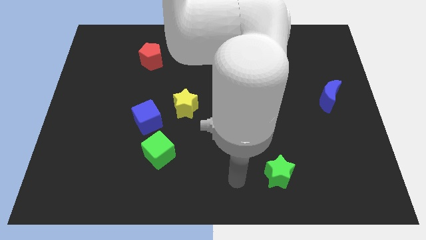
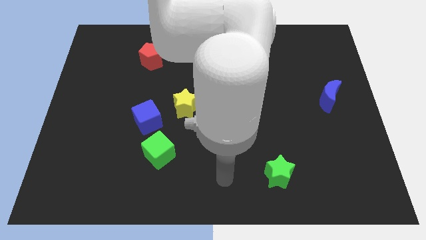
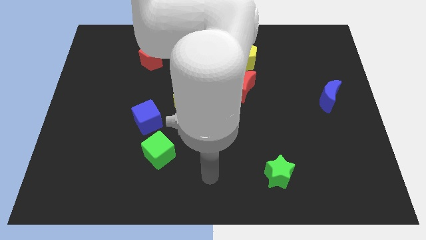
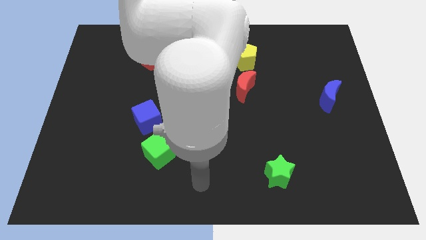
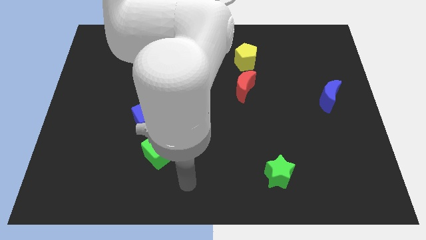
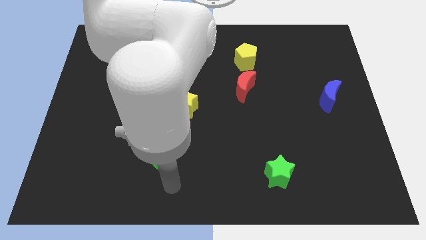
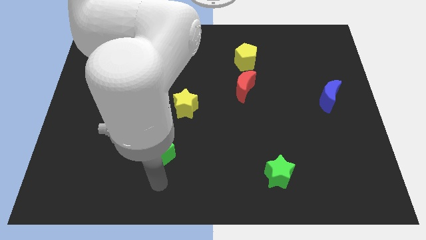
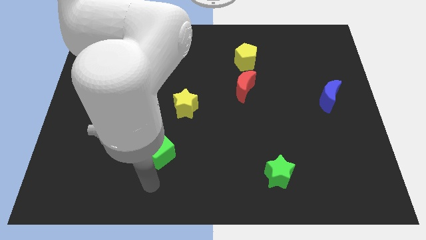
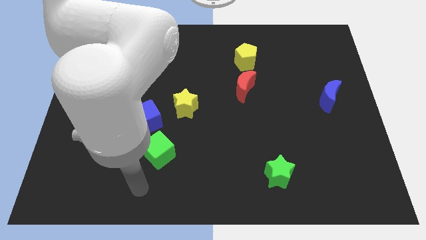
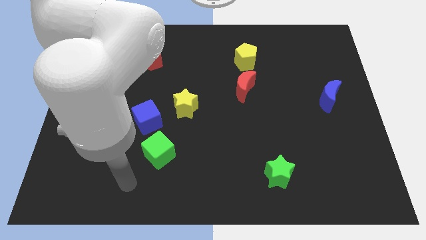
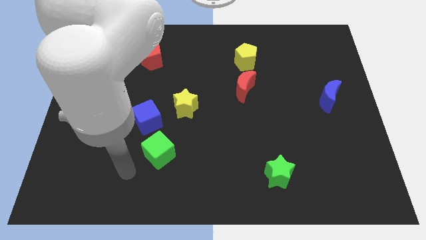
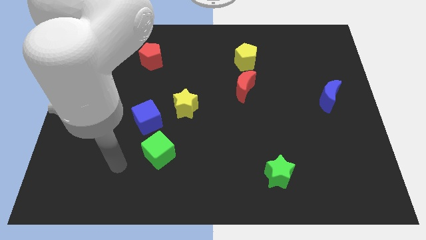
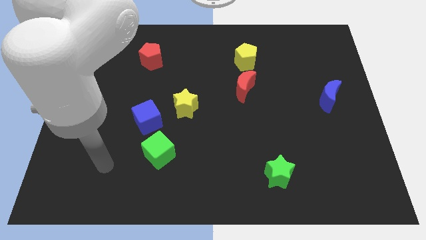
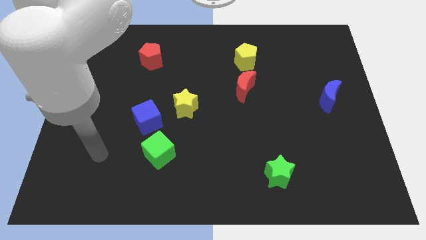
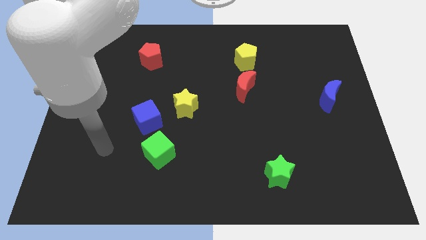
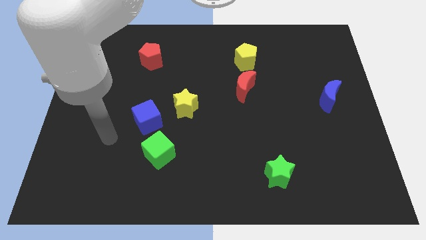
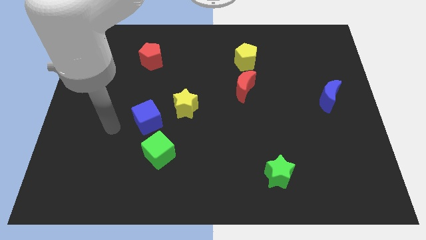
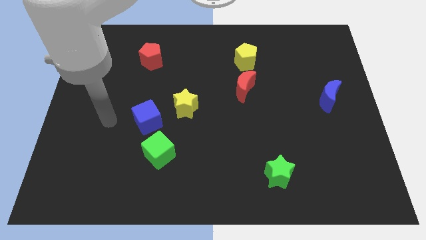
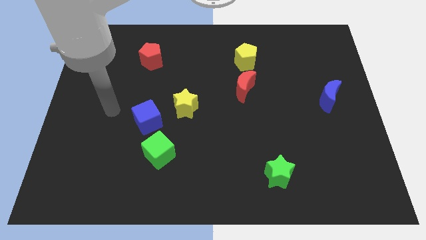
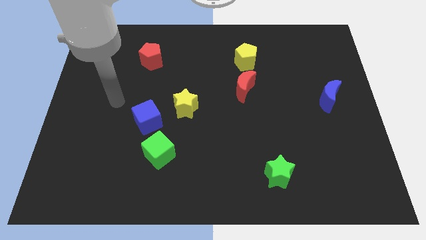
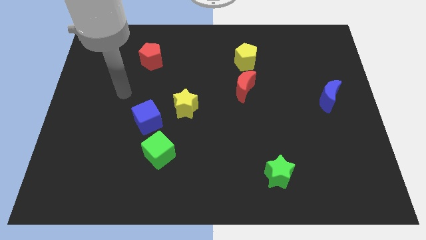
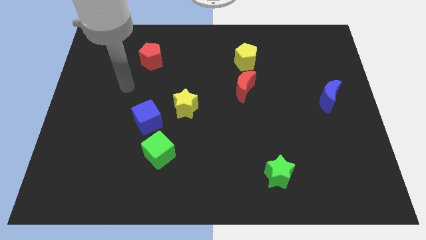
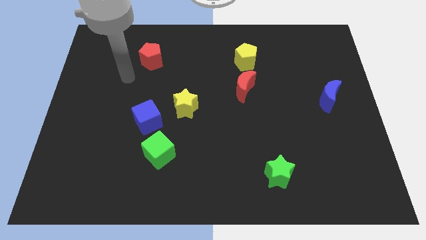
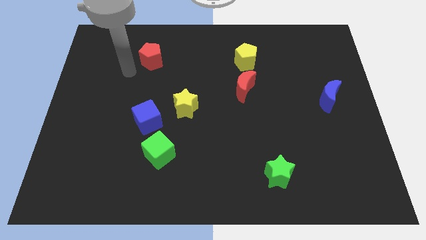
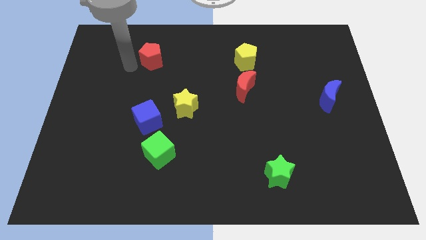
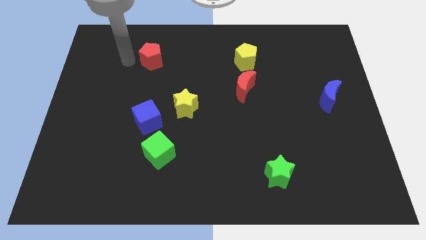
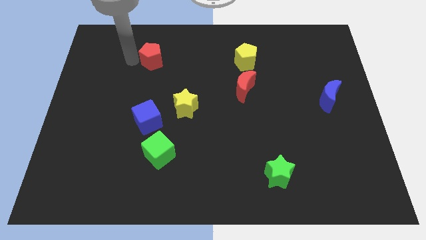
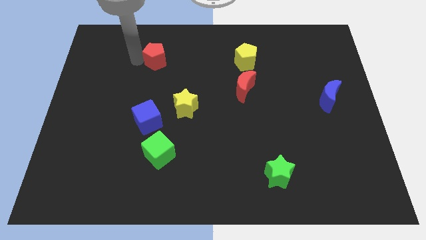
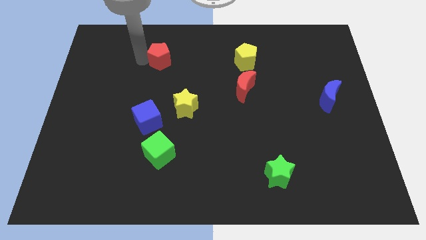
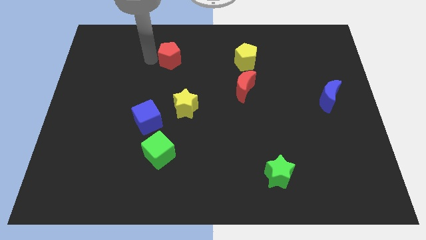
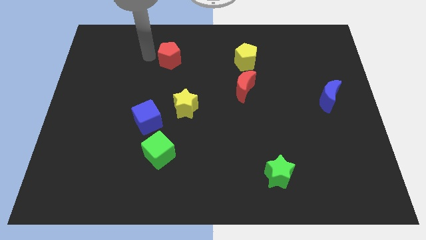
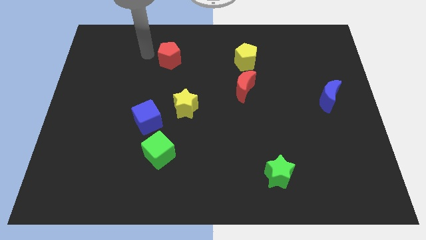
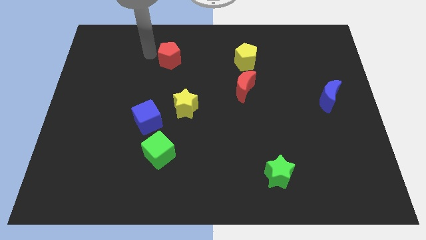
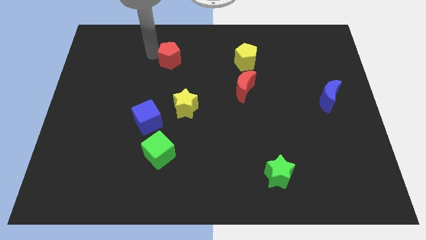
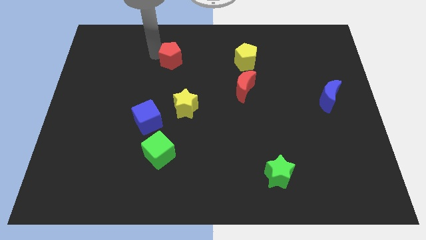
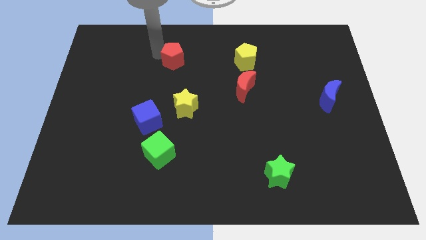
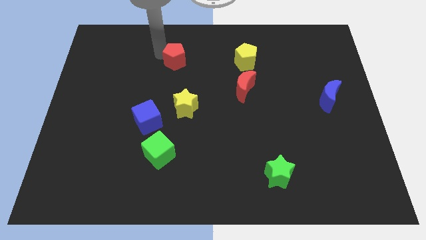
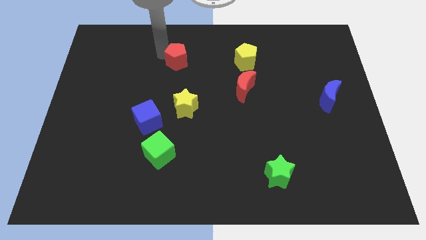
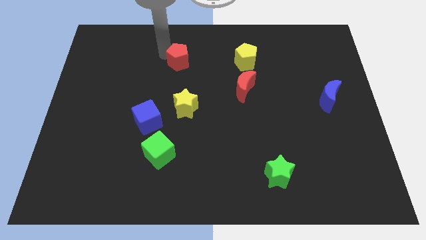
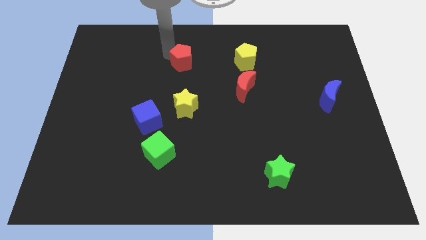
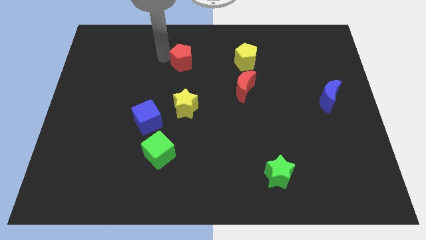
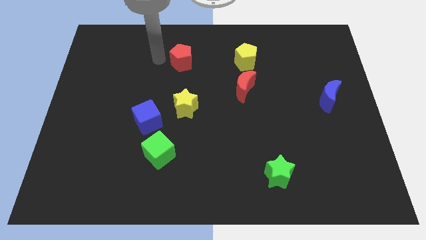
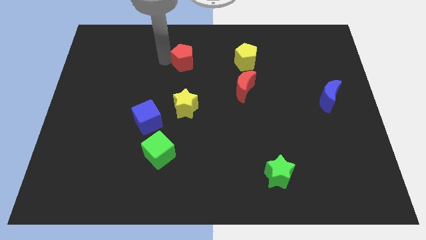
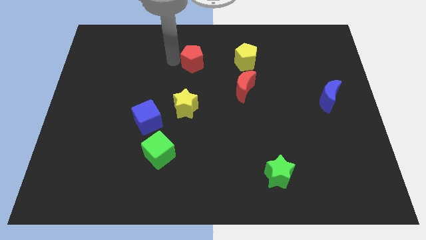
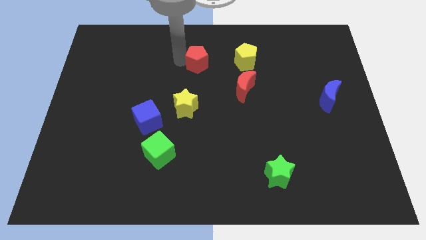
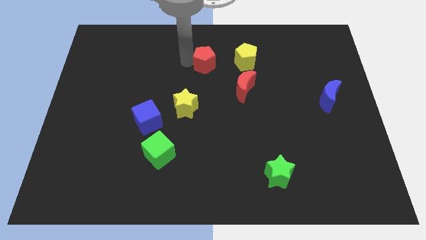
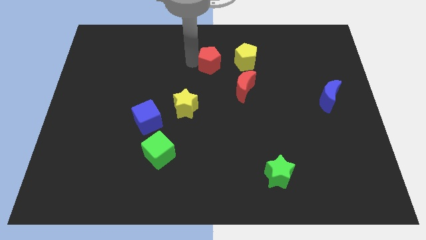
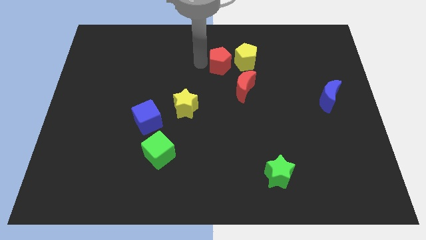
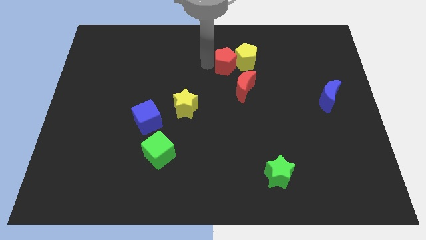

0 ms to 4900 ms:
move the red pentagon next to the yellow pentagon

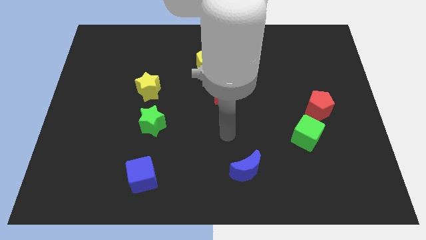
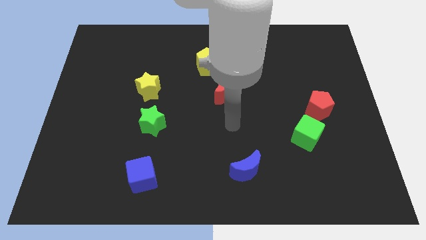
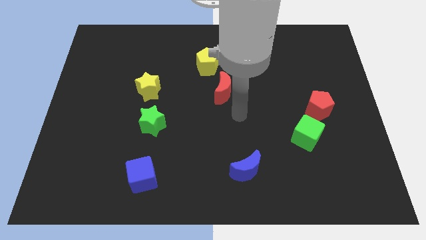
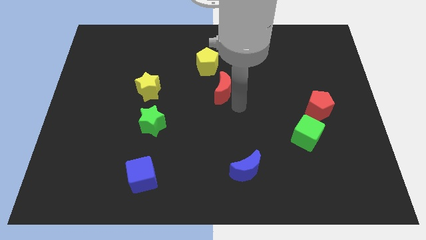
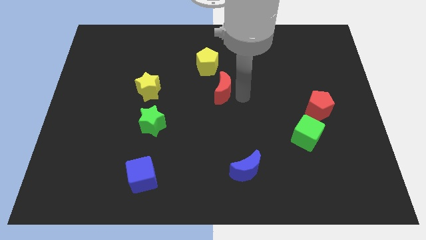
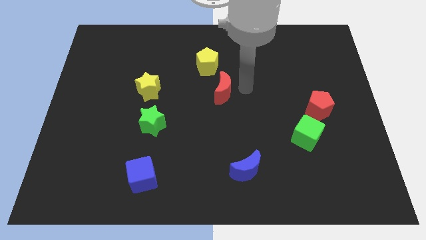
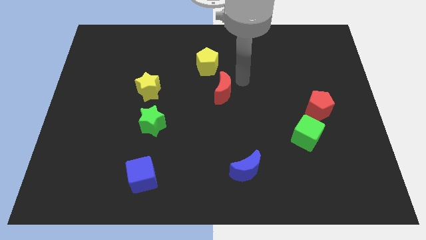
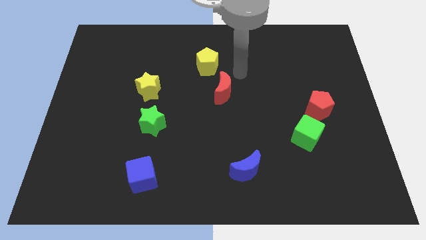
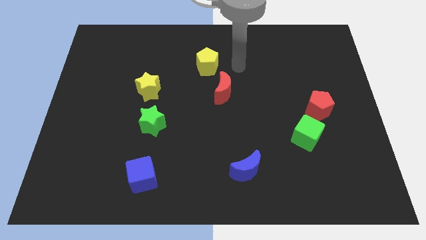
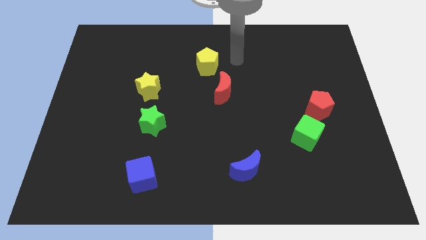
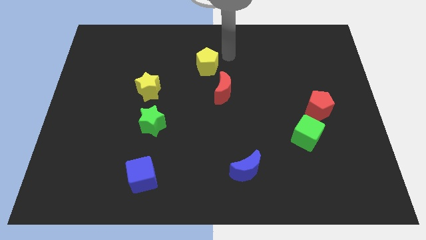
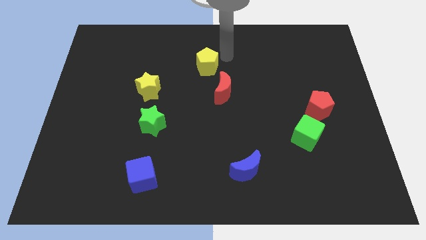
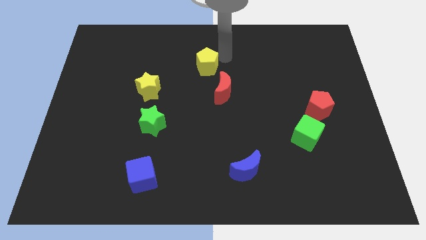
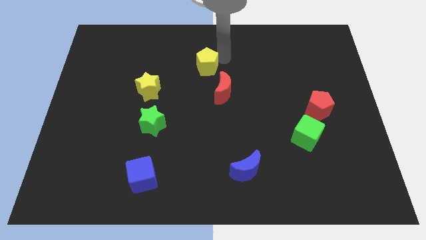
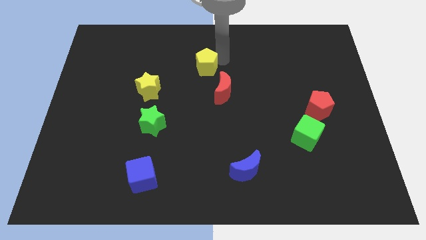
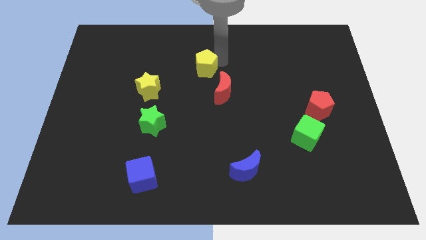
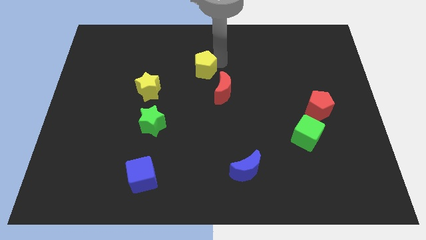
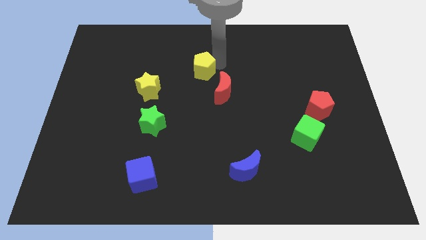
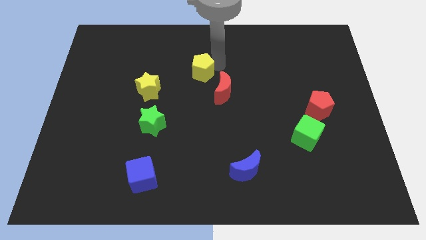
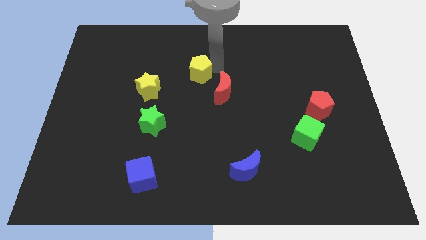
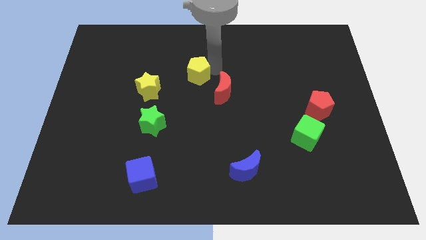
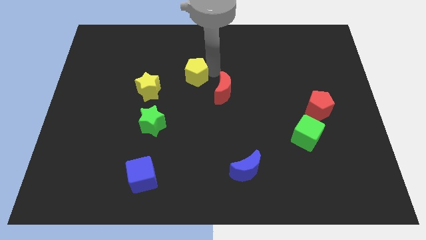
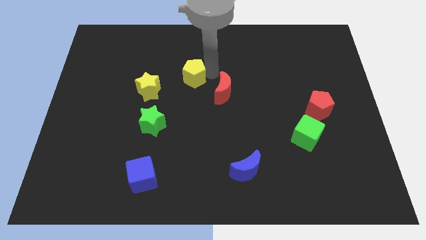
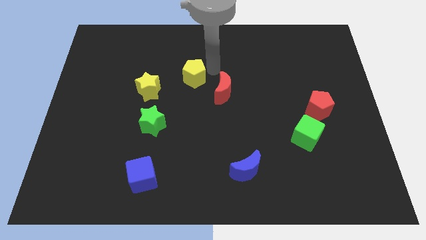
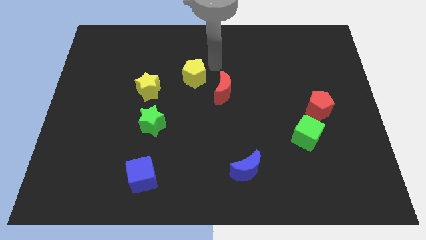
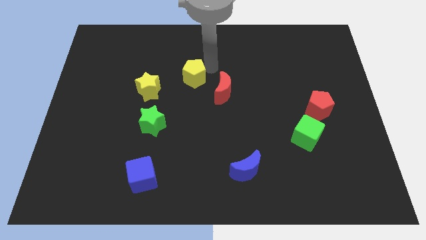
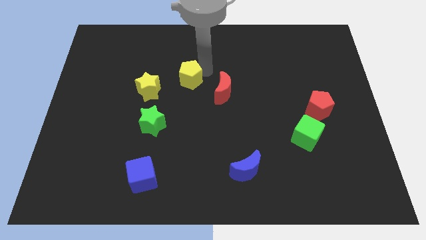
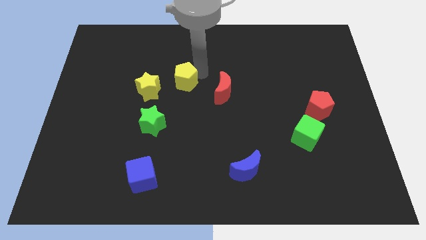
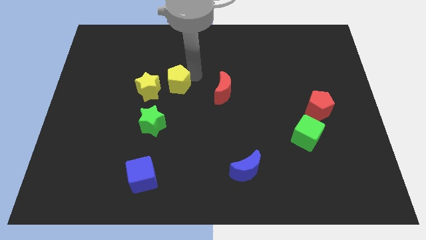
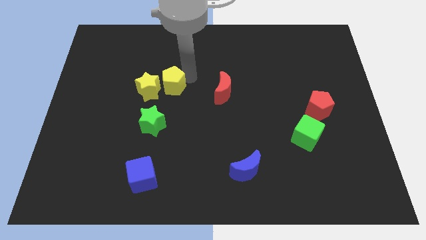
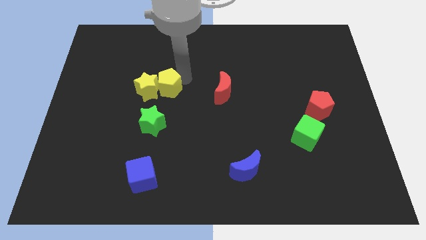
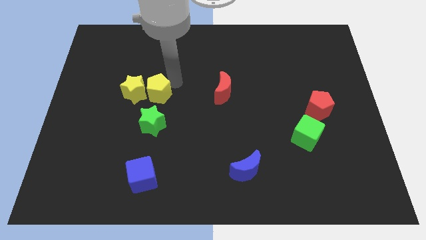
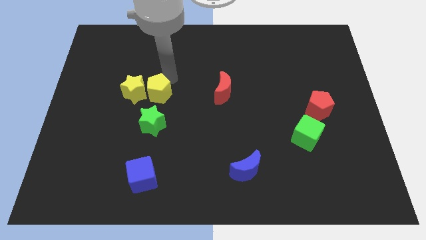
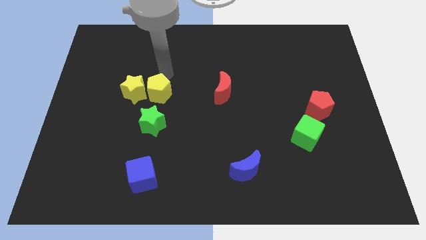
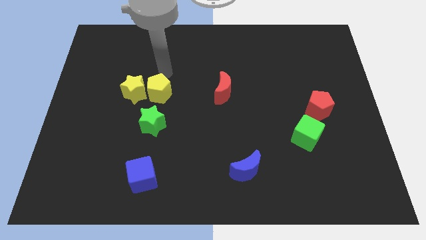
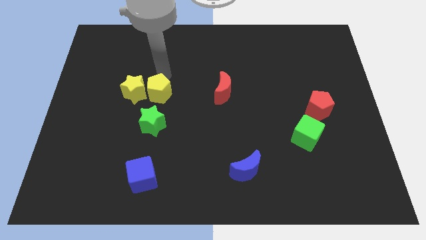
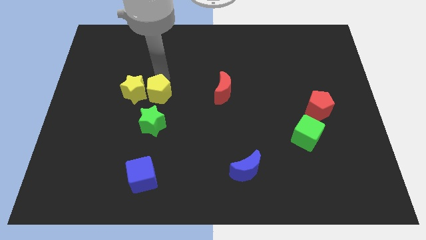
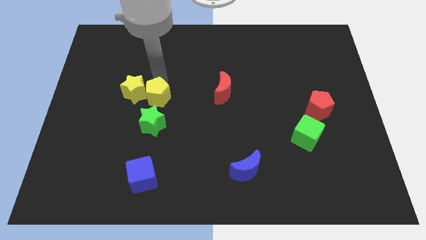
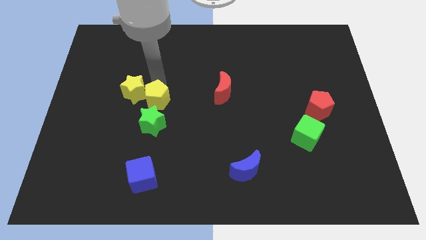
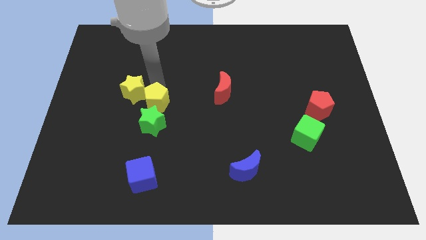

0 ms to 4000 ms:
slide the yellow pentagon towards the green star
